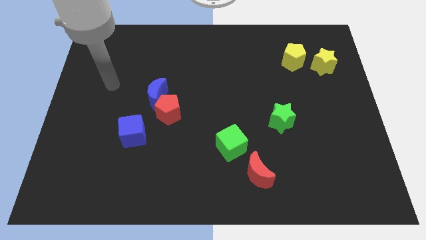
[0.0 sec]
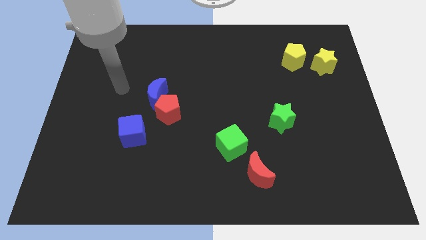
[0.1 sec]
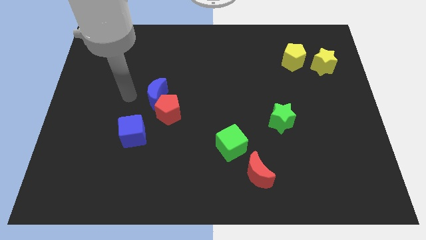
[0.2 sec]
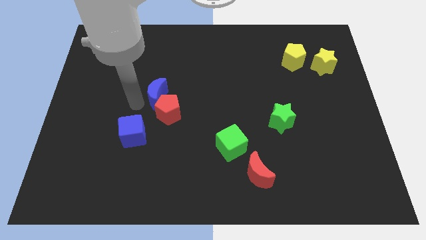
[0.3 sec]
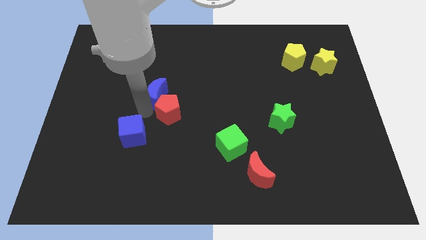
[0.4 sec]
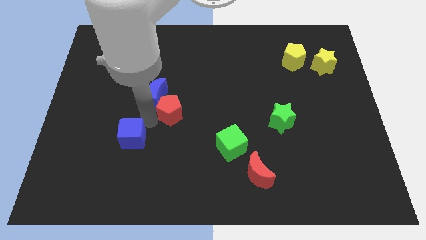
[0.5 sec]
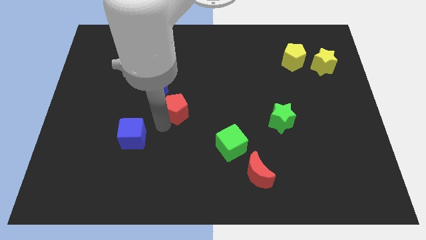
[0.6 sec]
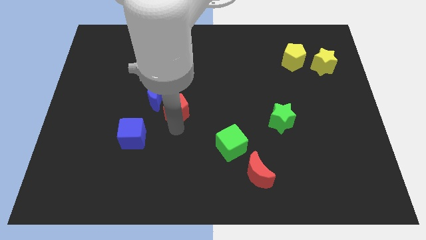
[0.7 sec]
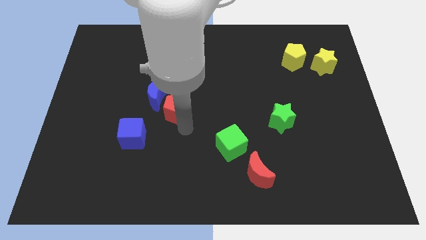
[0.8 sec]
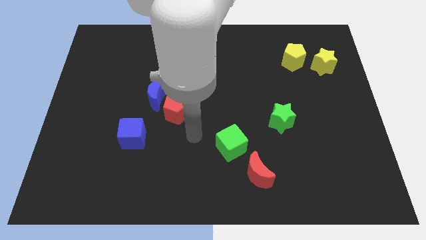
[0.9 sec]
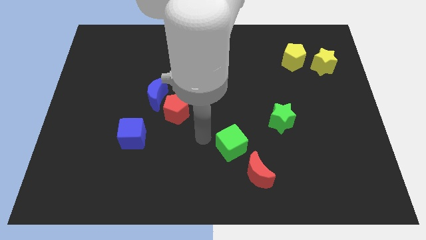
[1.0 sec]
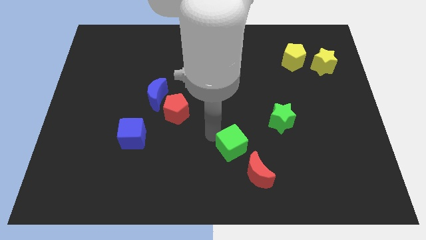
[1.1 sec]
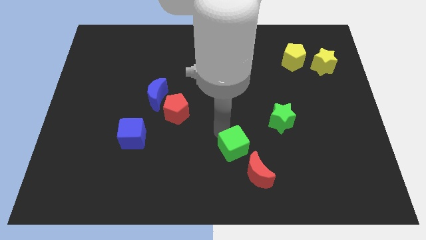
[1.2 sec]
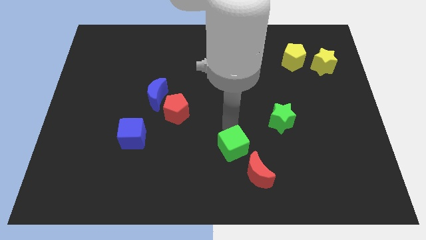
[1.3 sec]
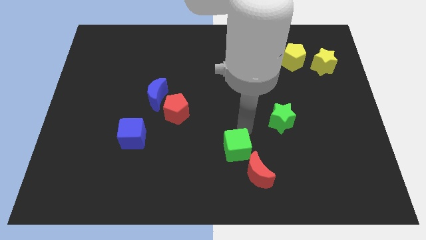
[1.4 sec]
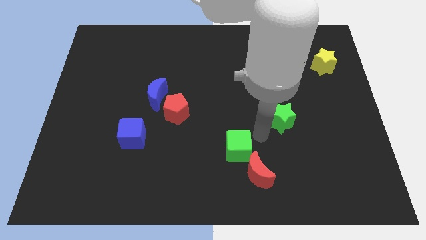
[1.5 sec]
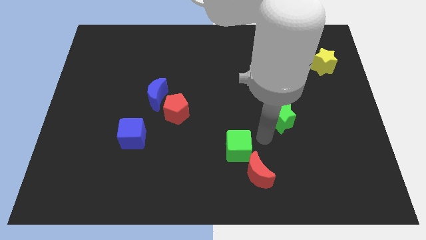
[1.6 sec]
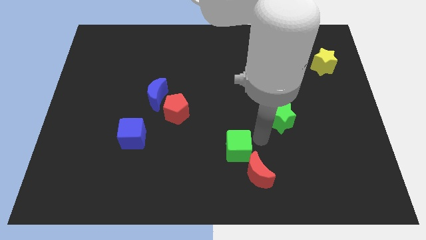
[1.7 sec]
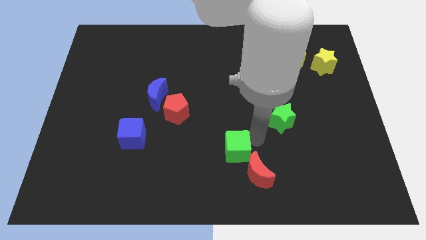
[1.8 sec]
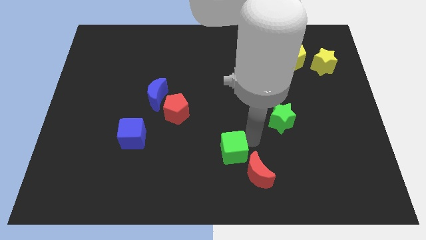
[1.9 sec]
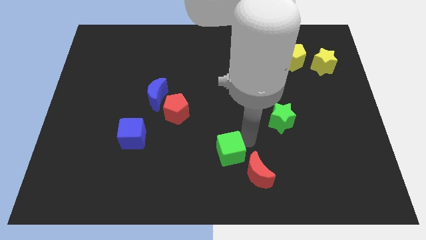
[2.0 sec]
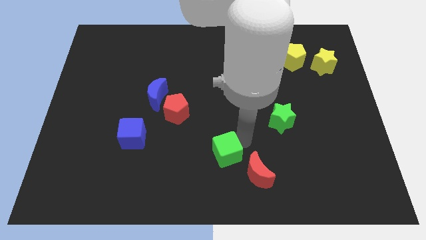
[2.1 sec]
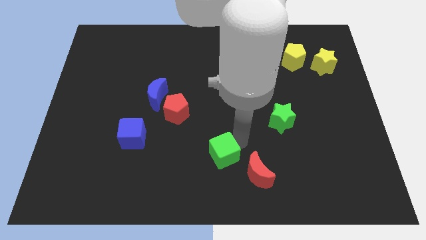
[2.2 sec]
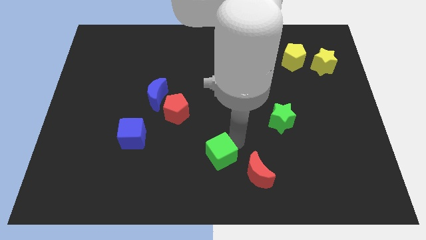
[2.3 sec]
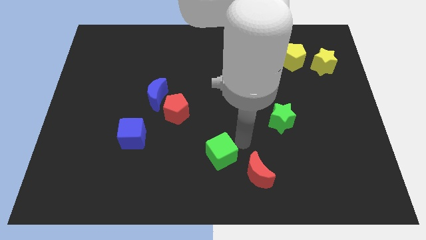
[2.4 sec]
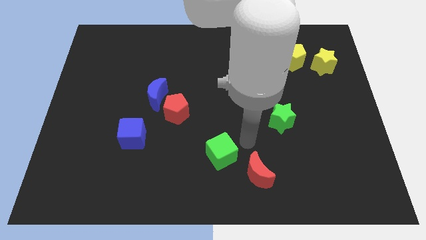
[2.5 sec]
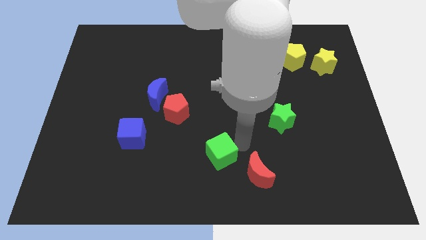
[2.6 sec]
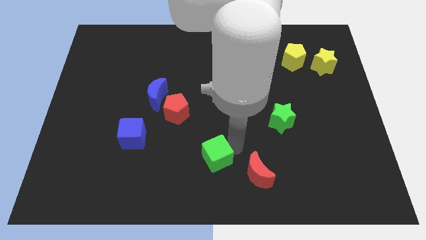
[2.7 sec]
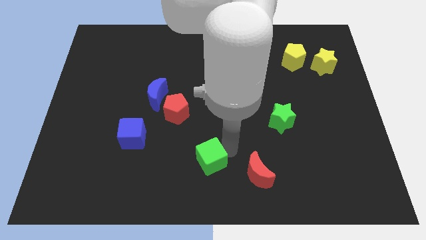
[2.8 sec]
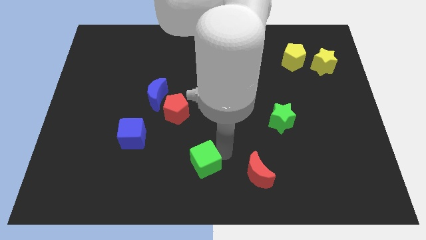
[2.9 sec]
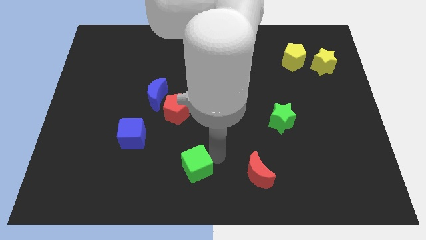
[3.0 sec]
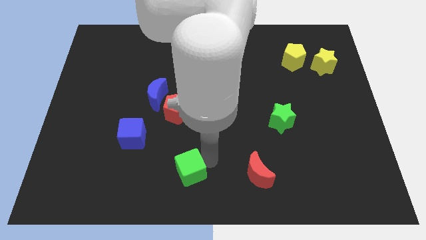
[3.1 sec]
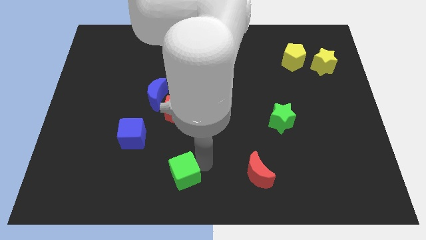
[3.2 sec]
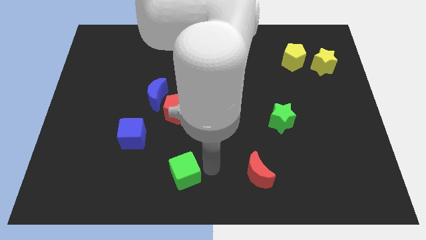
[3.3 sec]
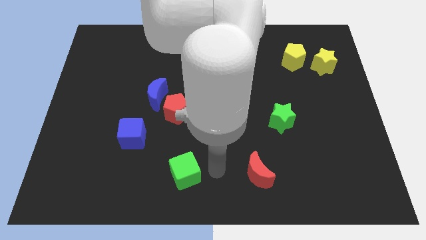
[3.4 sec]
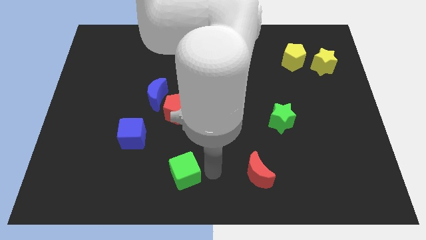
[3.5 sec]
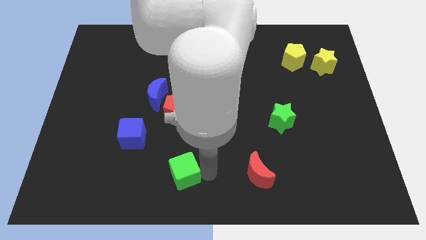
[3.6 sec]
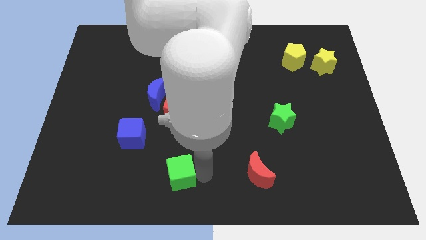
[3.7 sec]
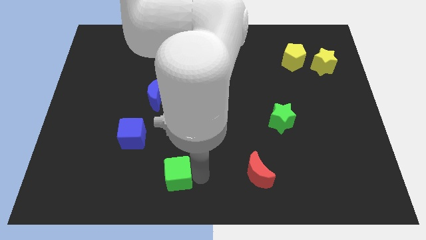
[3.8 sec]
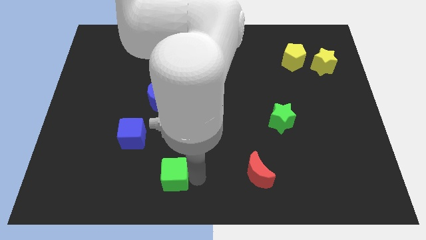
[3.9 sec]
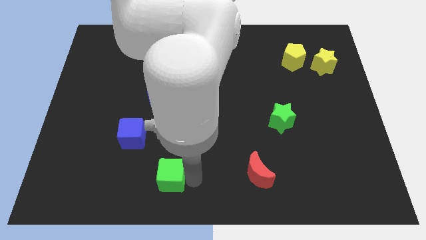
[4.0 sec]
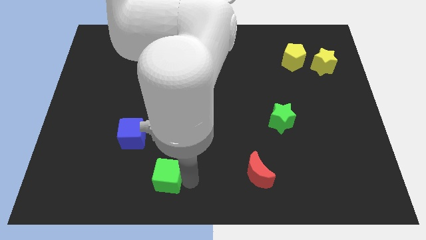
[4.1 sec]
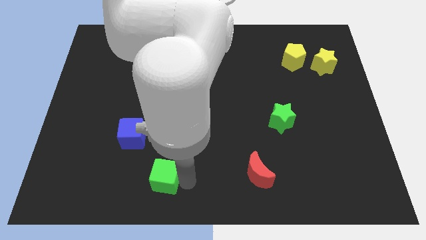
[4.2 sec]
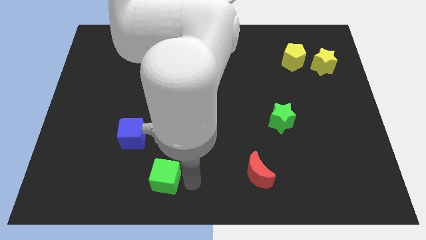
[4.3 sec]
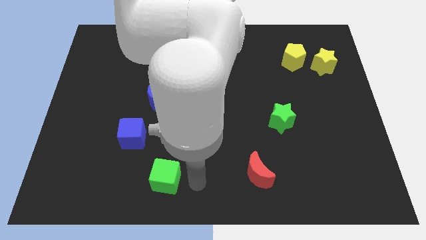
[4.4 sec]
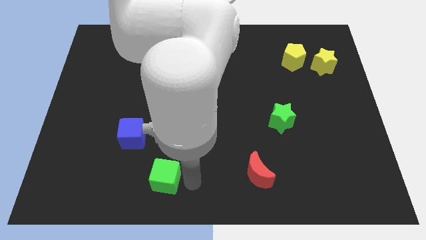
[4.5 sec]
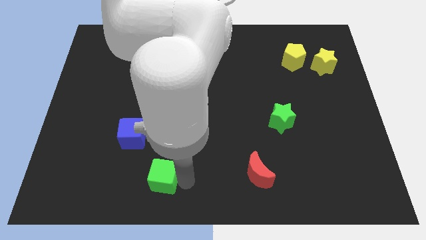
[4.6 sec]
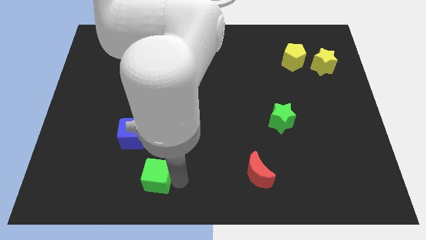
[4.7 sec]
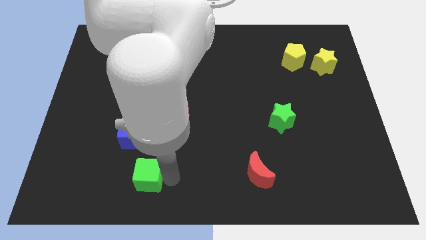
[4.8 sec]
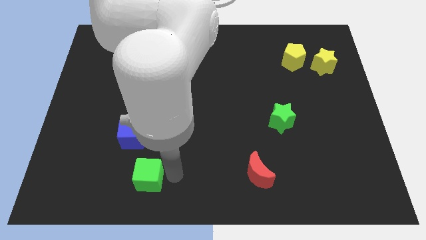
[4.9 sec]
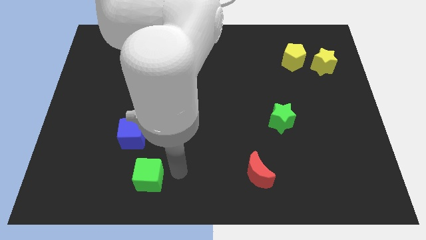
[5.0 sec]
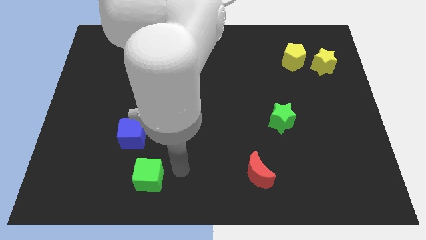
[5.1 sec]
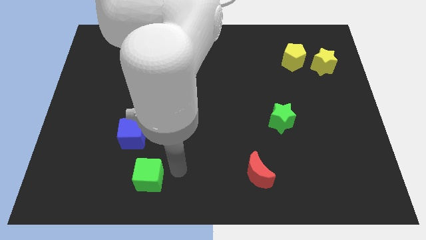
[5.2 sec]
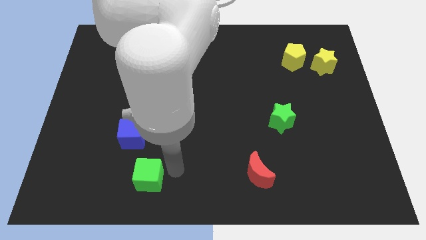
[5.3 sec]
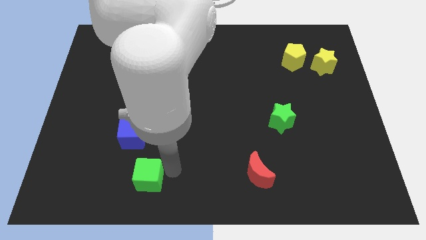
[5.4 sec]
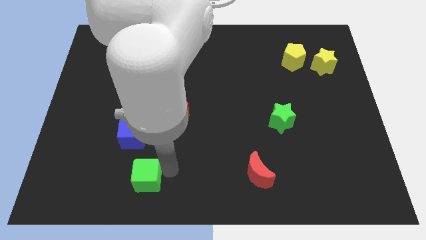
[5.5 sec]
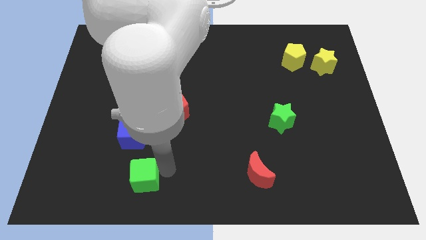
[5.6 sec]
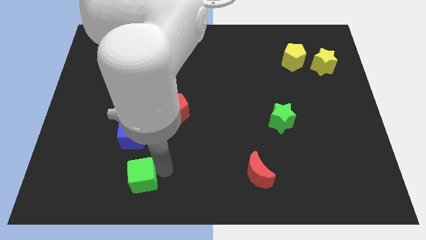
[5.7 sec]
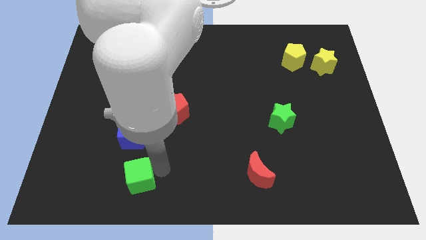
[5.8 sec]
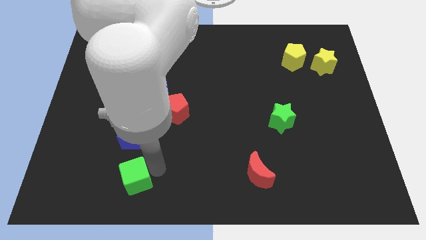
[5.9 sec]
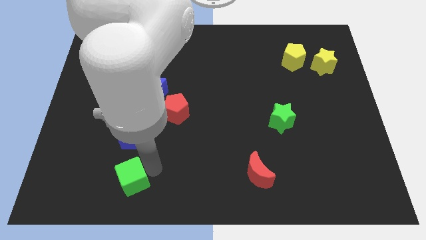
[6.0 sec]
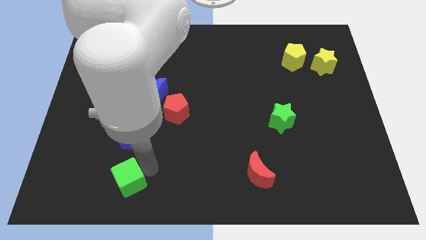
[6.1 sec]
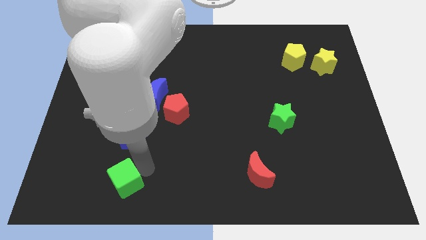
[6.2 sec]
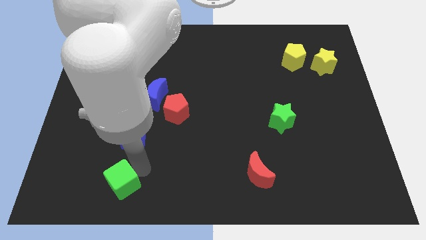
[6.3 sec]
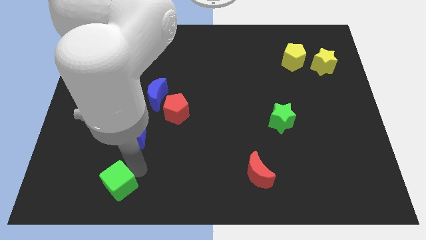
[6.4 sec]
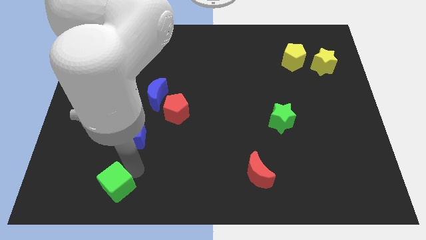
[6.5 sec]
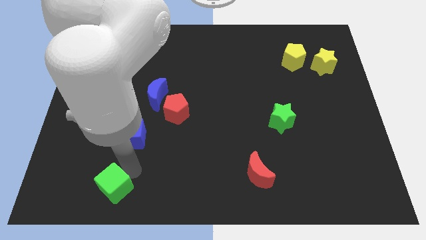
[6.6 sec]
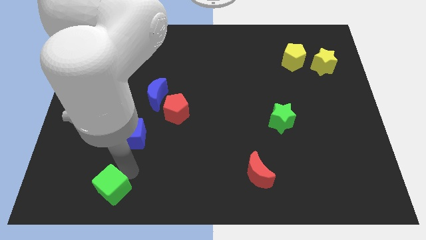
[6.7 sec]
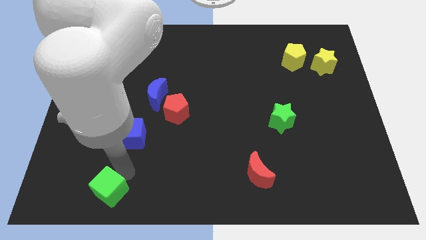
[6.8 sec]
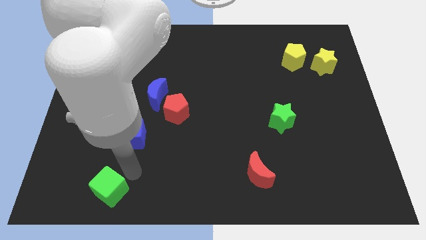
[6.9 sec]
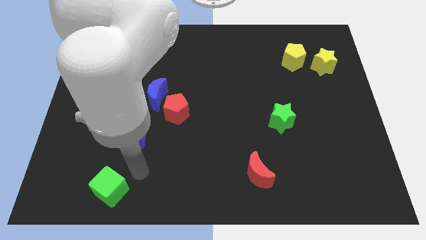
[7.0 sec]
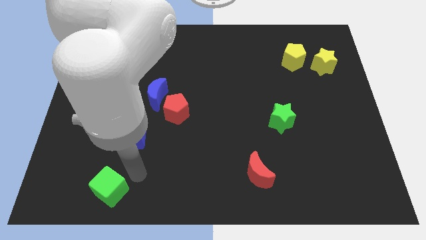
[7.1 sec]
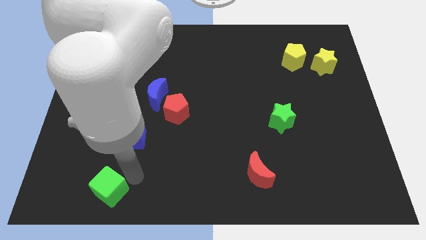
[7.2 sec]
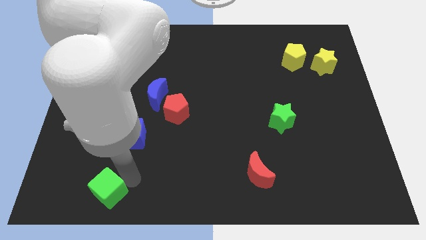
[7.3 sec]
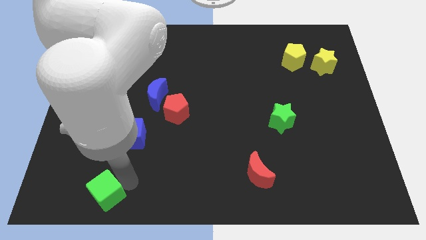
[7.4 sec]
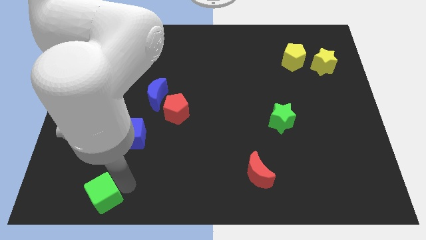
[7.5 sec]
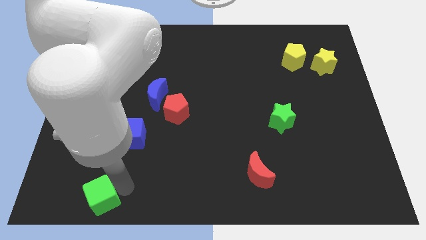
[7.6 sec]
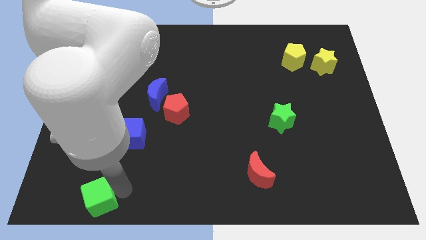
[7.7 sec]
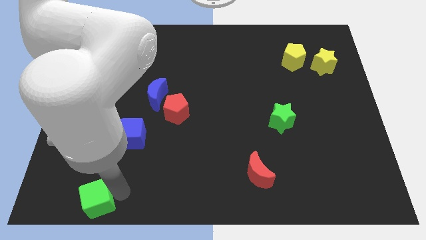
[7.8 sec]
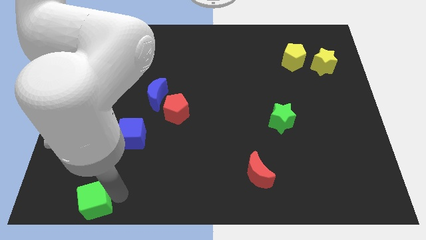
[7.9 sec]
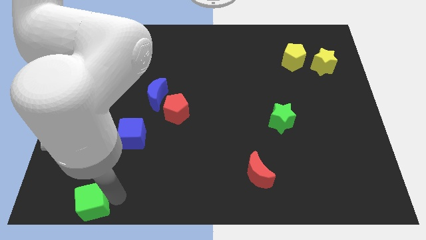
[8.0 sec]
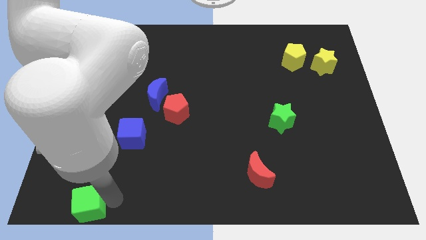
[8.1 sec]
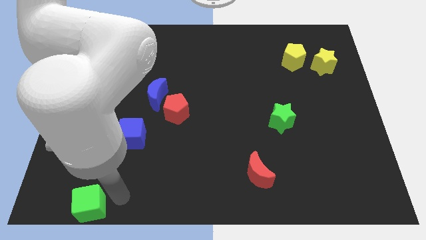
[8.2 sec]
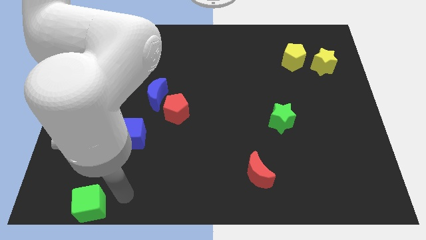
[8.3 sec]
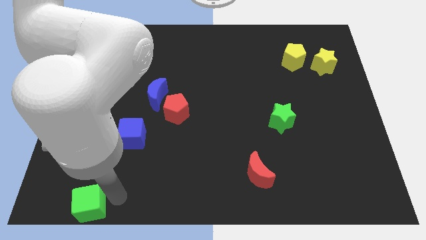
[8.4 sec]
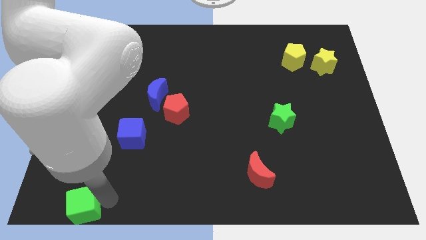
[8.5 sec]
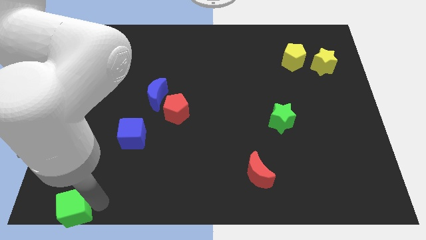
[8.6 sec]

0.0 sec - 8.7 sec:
move the green cube to the lower left corner
